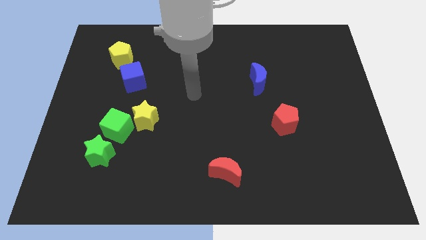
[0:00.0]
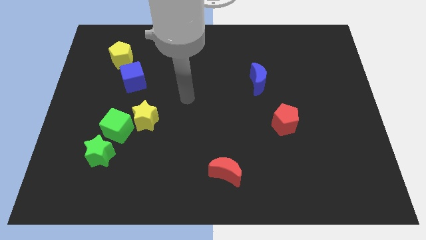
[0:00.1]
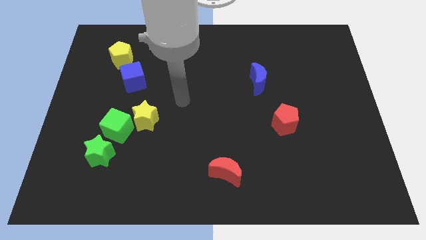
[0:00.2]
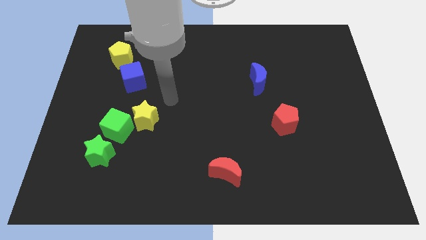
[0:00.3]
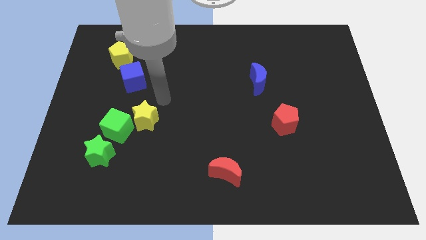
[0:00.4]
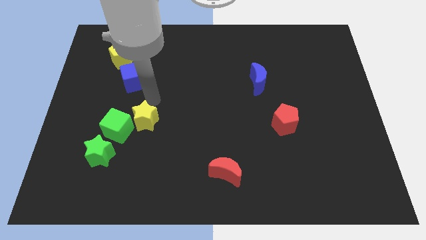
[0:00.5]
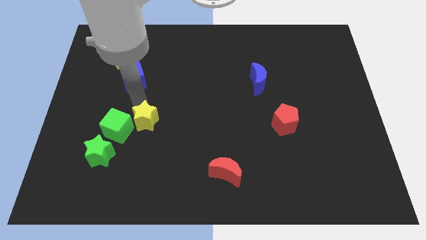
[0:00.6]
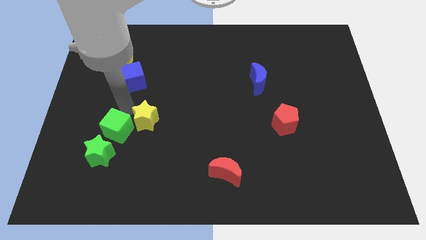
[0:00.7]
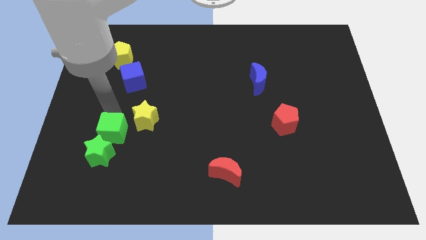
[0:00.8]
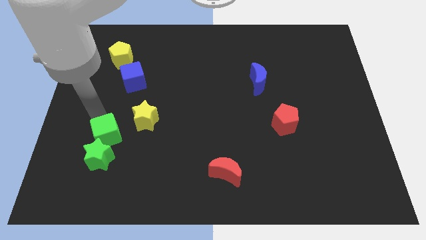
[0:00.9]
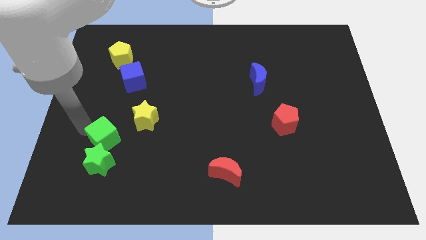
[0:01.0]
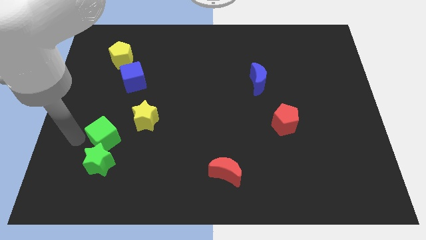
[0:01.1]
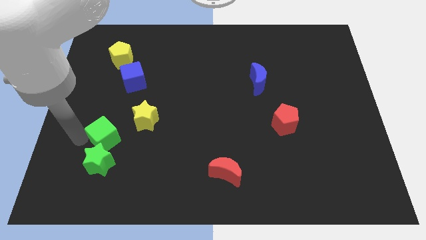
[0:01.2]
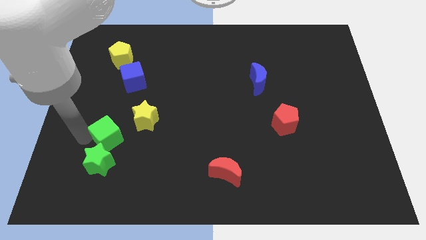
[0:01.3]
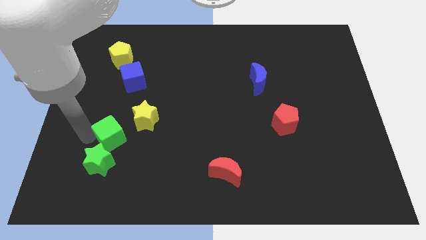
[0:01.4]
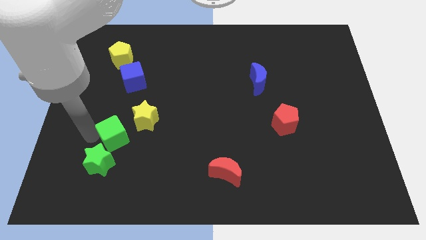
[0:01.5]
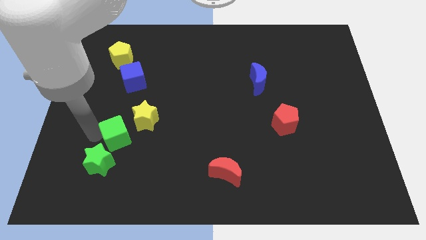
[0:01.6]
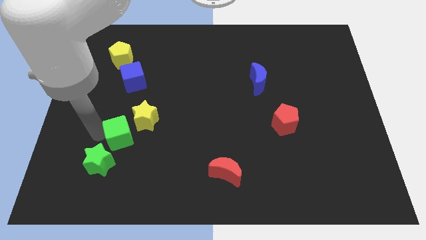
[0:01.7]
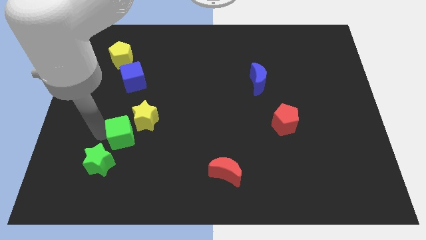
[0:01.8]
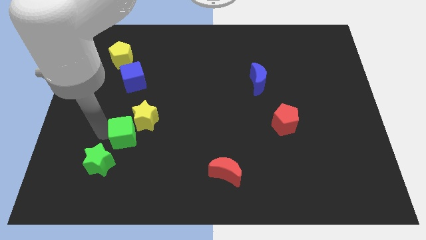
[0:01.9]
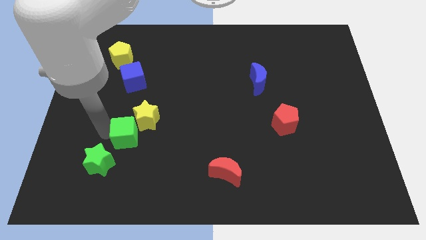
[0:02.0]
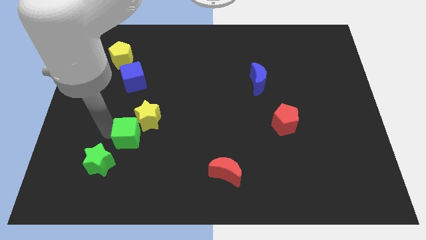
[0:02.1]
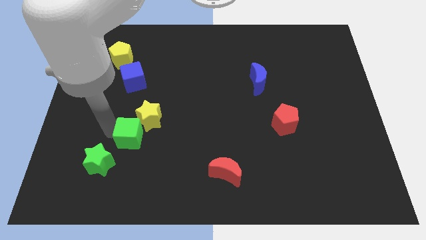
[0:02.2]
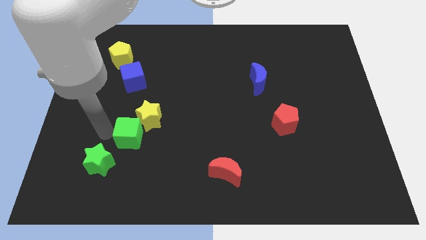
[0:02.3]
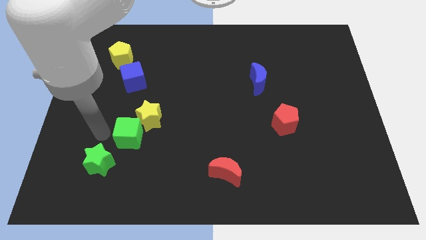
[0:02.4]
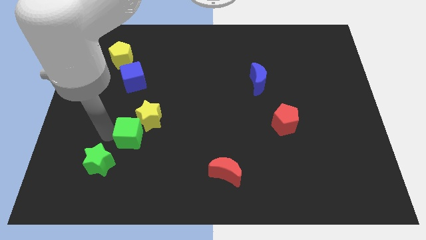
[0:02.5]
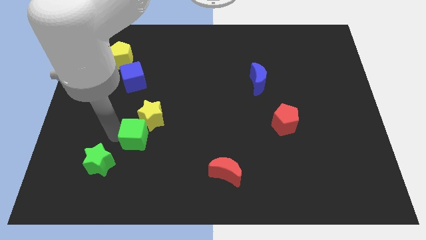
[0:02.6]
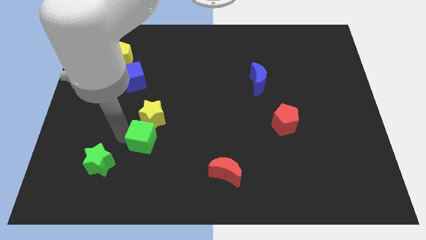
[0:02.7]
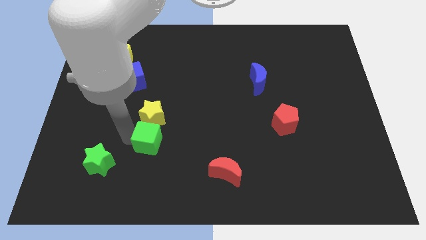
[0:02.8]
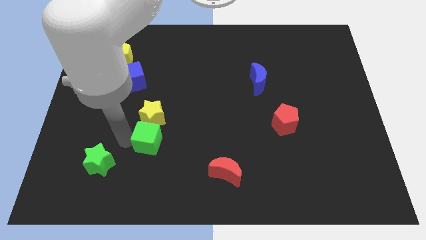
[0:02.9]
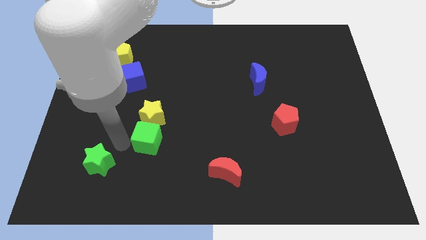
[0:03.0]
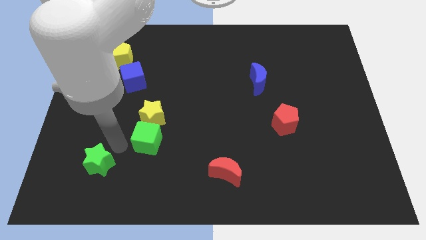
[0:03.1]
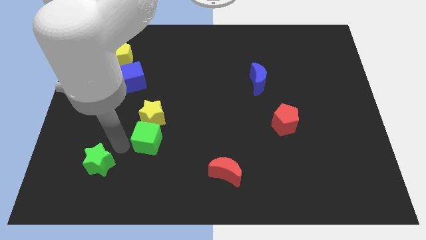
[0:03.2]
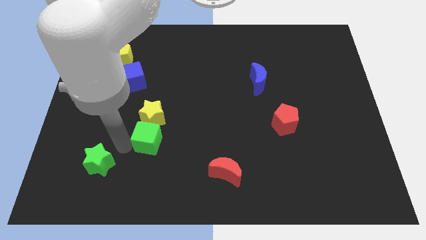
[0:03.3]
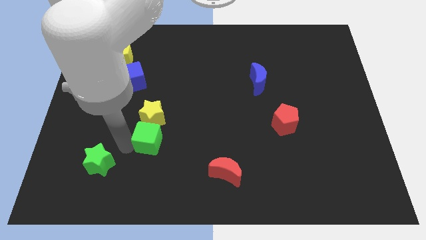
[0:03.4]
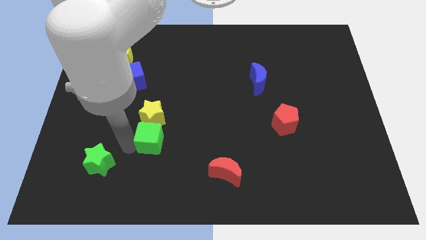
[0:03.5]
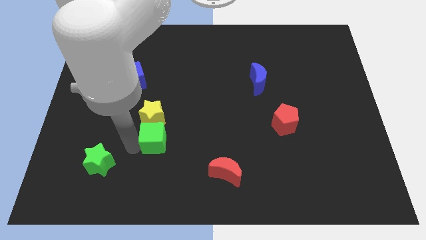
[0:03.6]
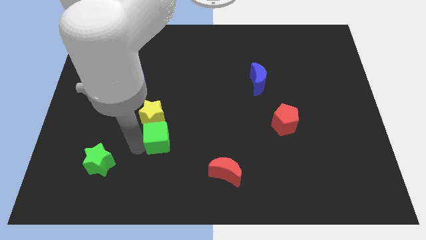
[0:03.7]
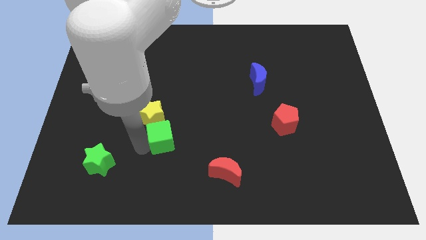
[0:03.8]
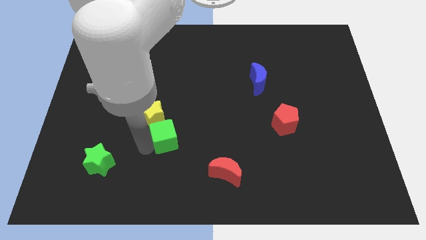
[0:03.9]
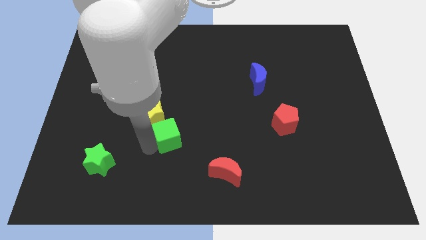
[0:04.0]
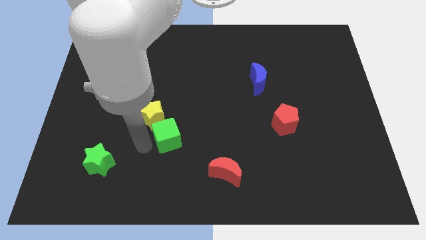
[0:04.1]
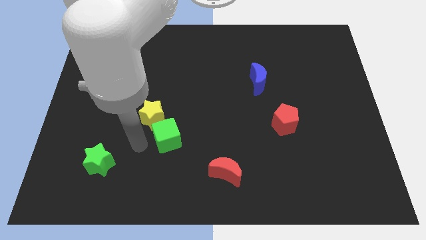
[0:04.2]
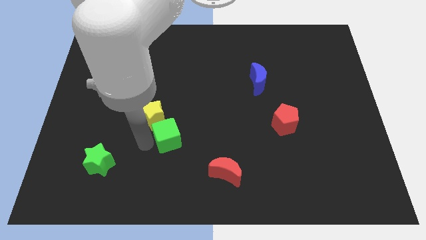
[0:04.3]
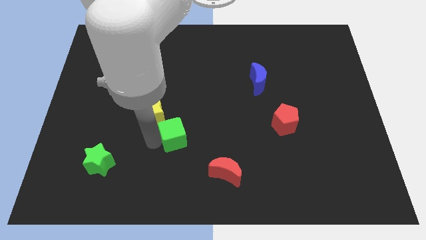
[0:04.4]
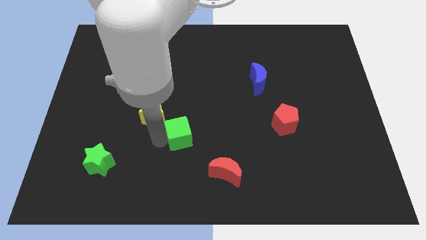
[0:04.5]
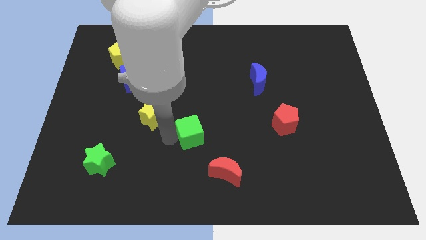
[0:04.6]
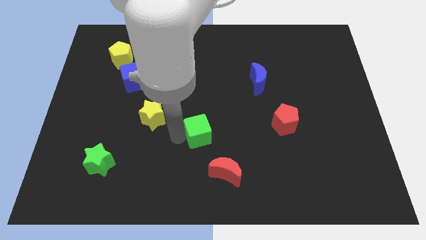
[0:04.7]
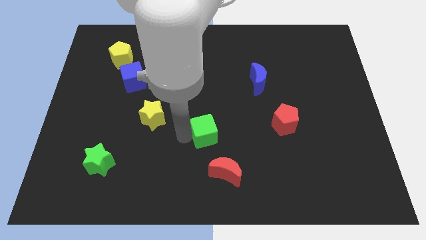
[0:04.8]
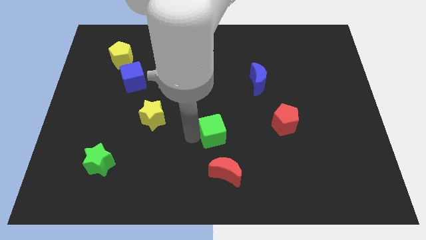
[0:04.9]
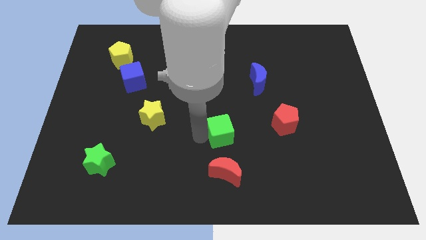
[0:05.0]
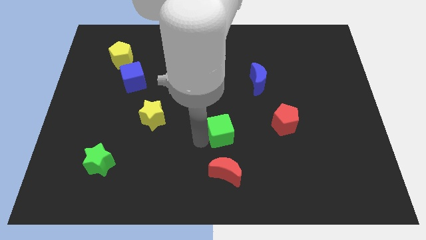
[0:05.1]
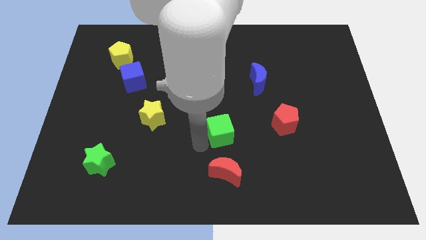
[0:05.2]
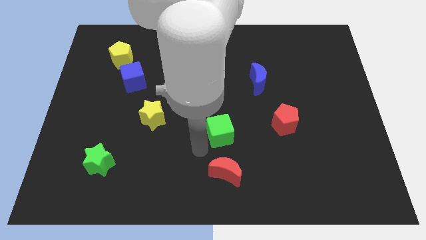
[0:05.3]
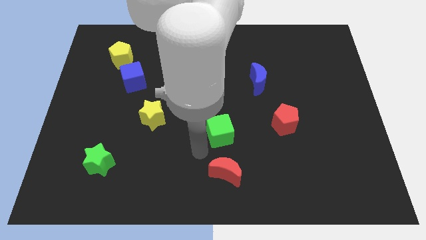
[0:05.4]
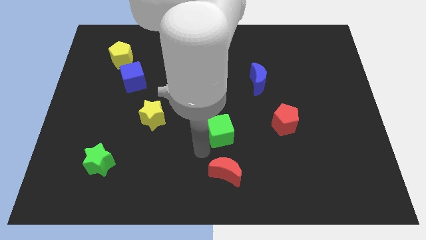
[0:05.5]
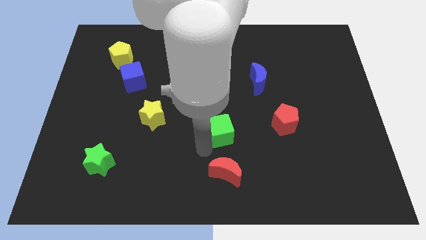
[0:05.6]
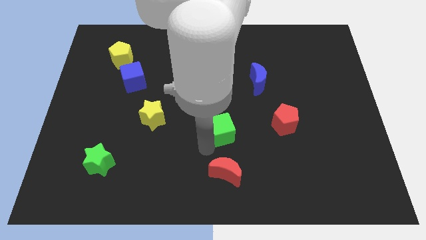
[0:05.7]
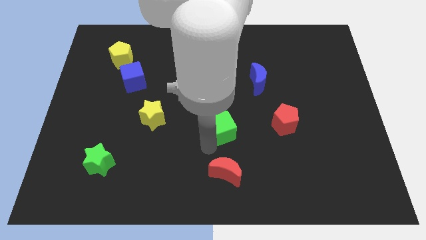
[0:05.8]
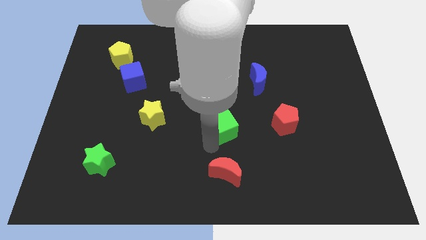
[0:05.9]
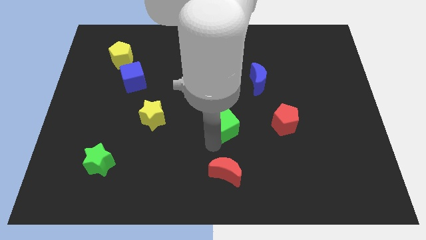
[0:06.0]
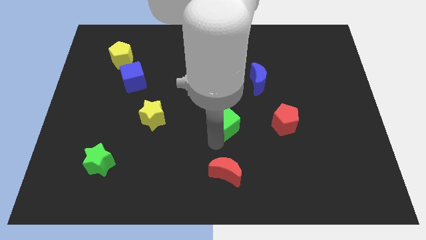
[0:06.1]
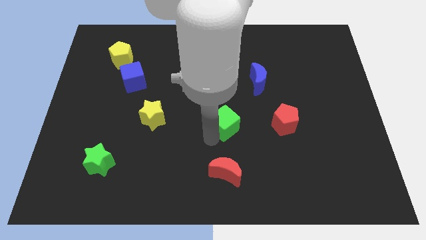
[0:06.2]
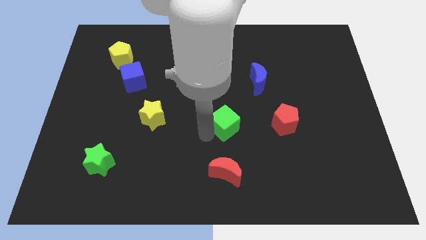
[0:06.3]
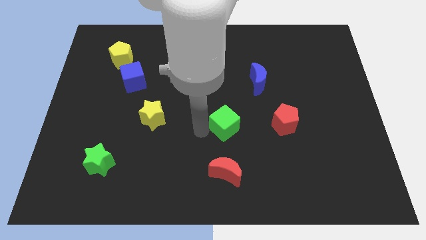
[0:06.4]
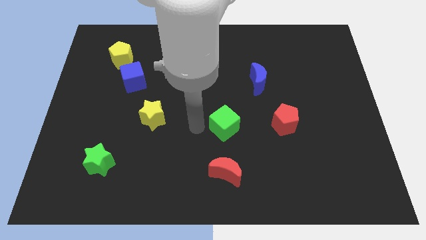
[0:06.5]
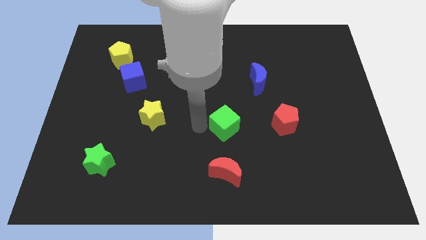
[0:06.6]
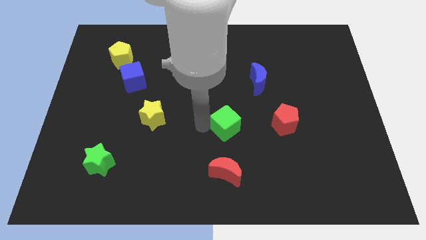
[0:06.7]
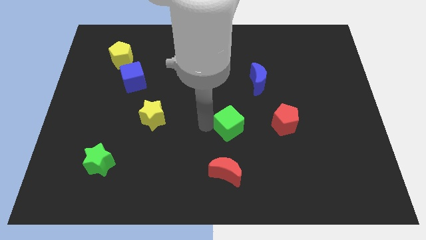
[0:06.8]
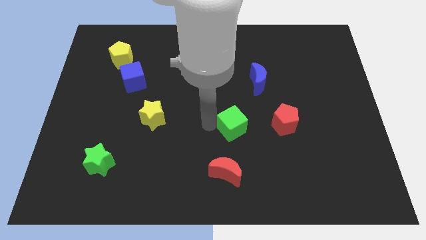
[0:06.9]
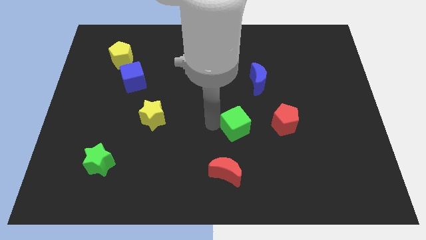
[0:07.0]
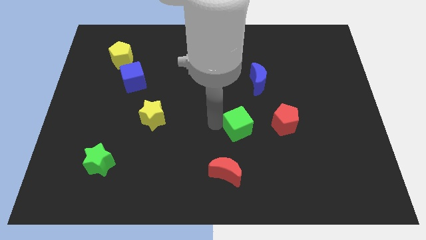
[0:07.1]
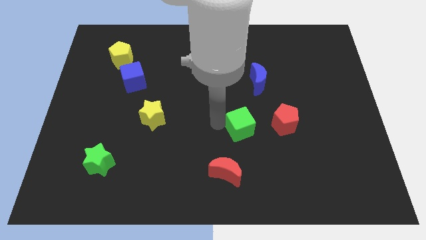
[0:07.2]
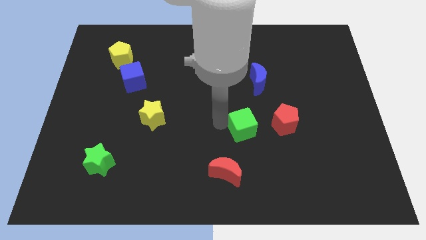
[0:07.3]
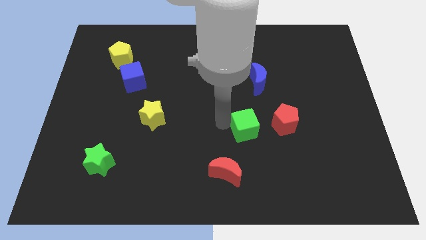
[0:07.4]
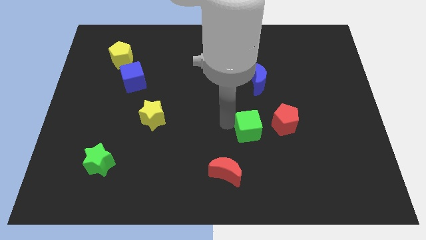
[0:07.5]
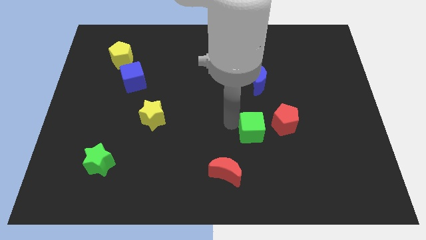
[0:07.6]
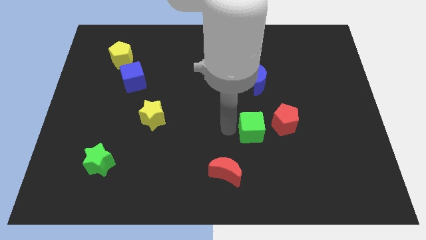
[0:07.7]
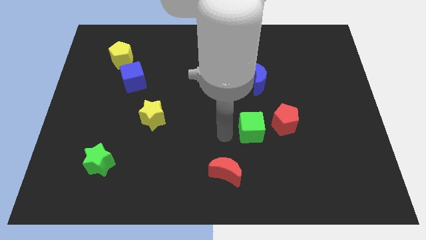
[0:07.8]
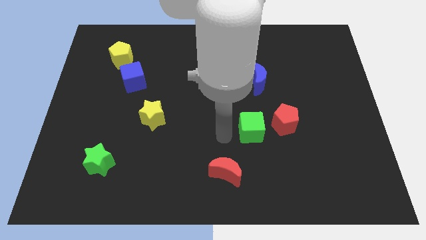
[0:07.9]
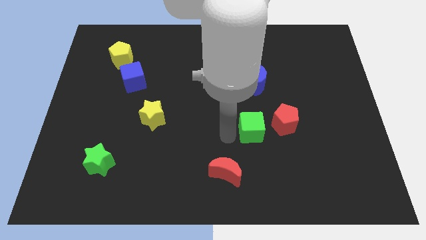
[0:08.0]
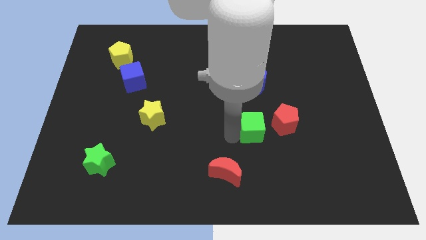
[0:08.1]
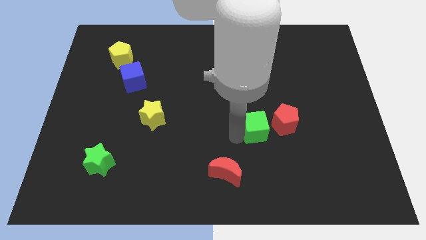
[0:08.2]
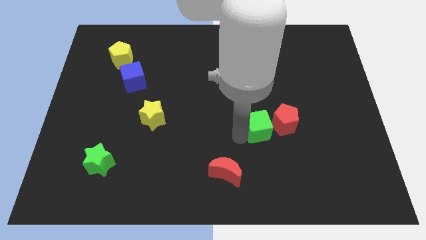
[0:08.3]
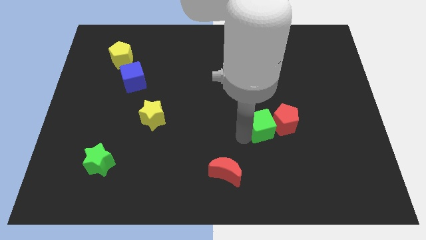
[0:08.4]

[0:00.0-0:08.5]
move the green cube close to the red pentagon
